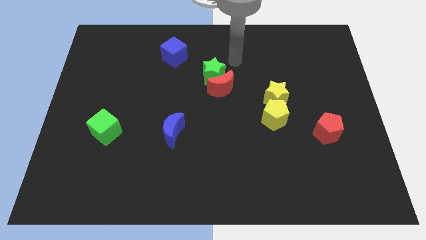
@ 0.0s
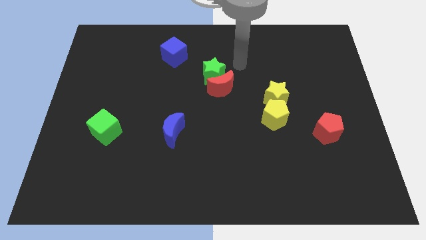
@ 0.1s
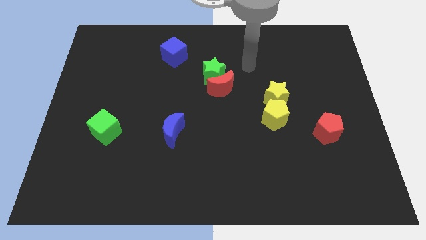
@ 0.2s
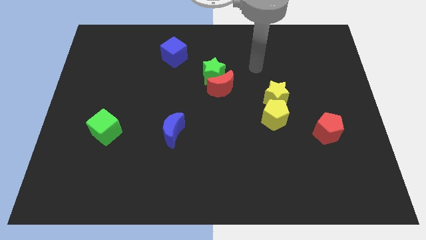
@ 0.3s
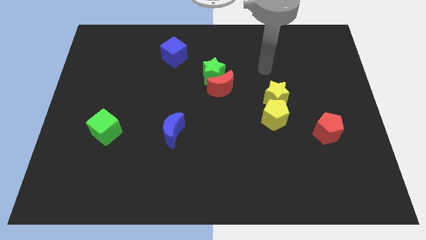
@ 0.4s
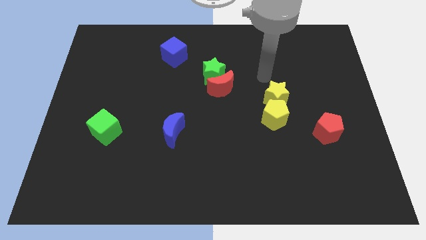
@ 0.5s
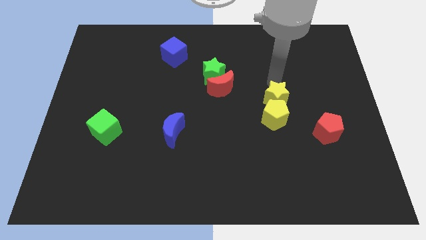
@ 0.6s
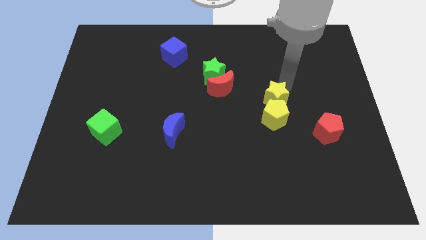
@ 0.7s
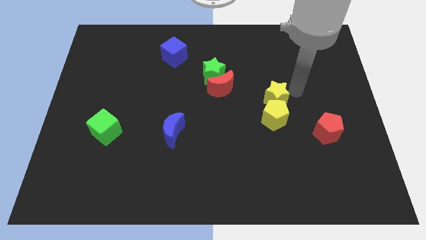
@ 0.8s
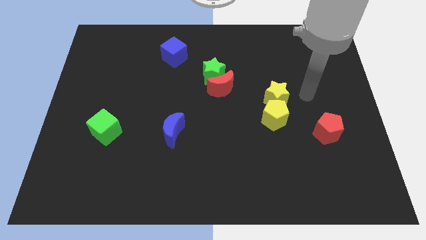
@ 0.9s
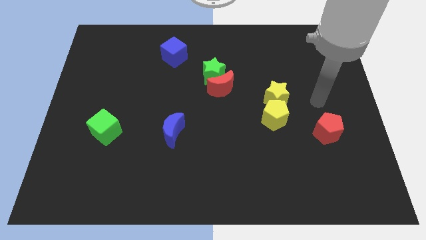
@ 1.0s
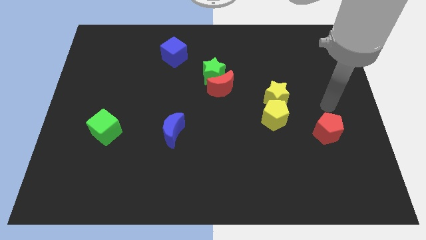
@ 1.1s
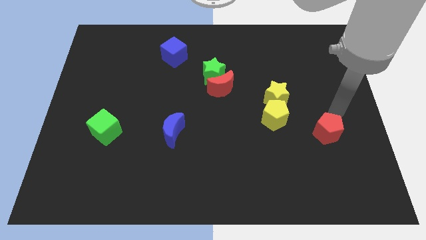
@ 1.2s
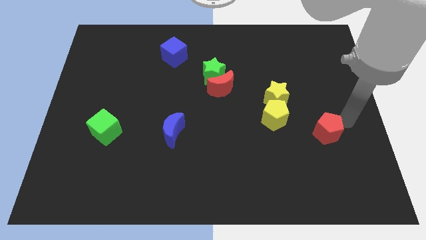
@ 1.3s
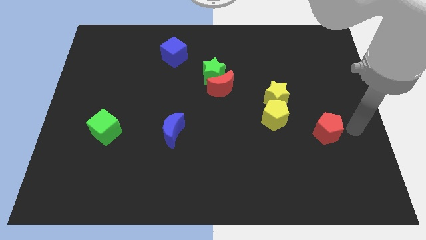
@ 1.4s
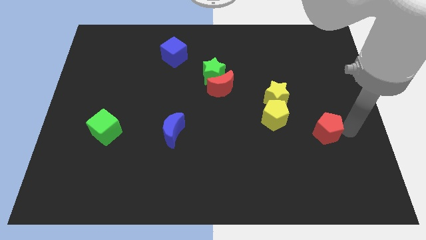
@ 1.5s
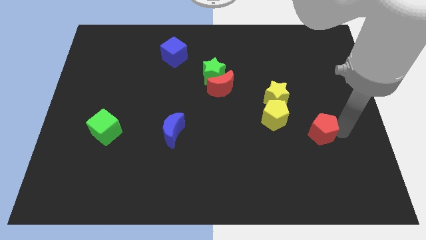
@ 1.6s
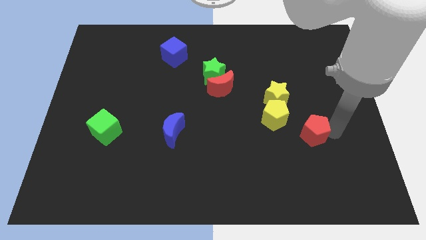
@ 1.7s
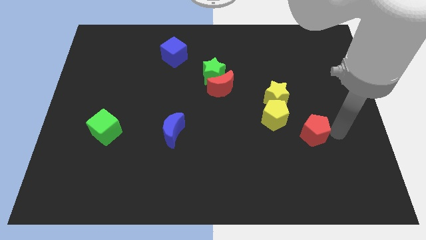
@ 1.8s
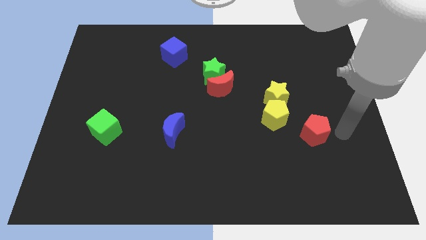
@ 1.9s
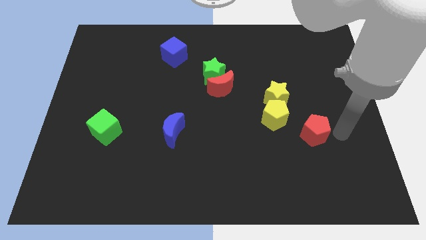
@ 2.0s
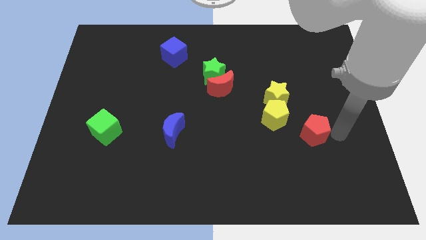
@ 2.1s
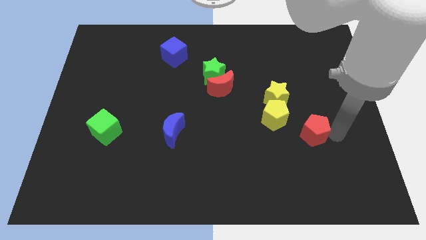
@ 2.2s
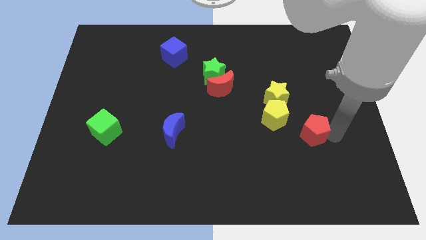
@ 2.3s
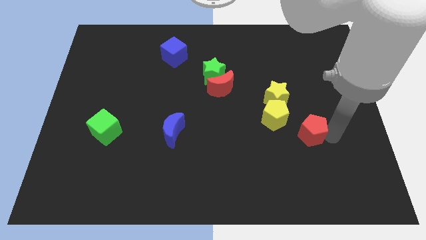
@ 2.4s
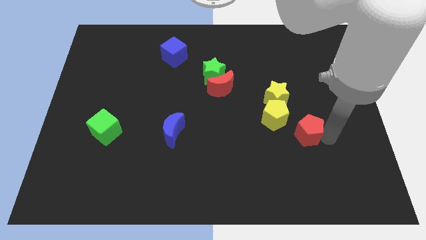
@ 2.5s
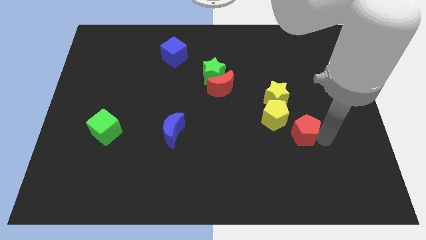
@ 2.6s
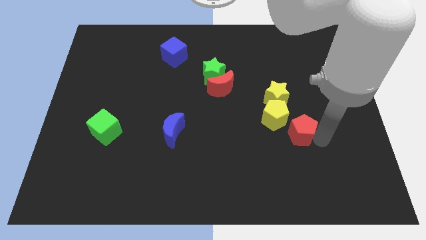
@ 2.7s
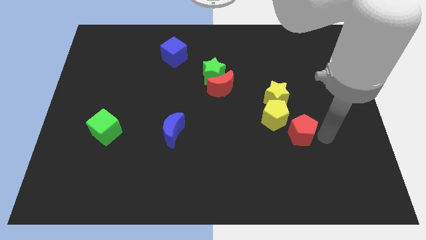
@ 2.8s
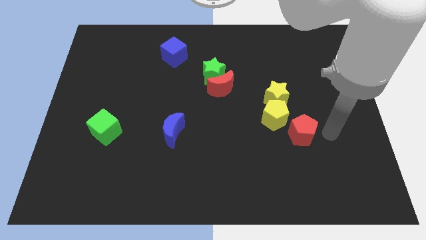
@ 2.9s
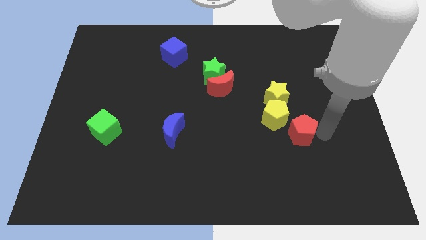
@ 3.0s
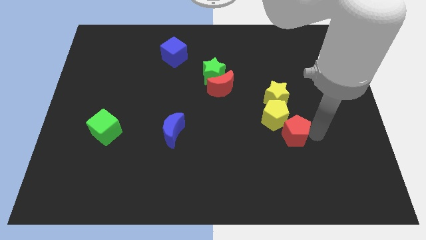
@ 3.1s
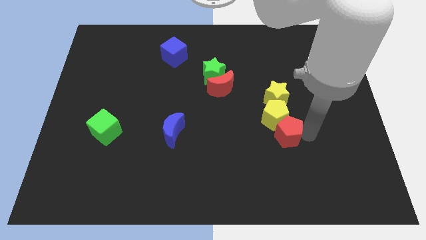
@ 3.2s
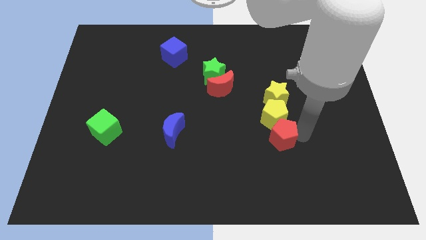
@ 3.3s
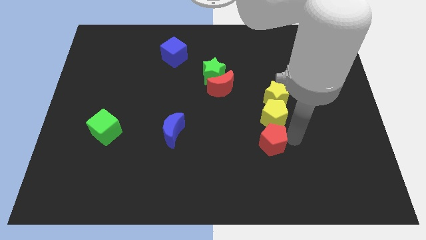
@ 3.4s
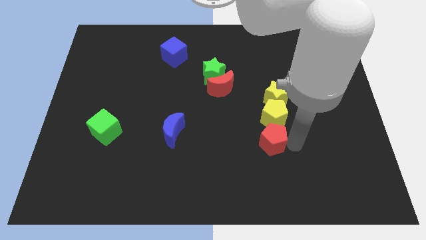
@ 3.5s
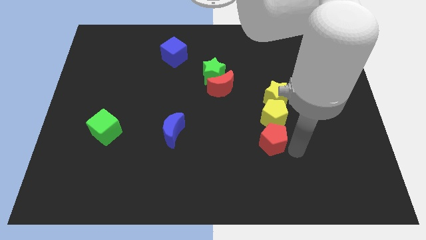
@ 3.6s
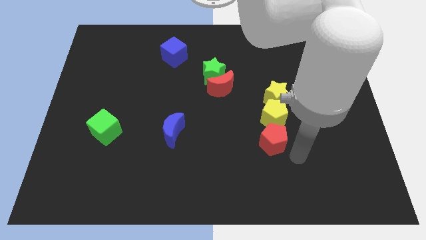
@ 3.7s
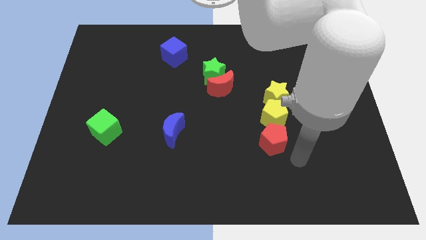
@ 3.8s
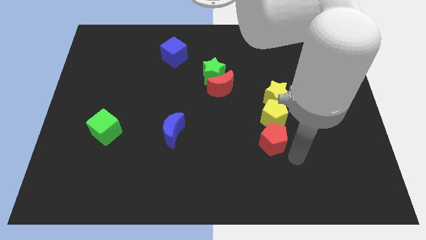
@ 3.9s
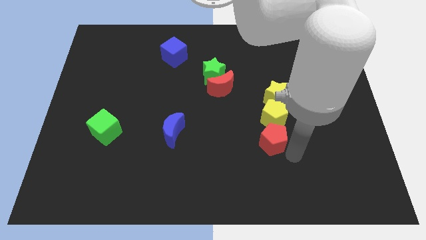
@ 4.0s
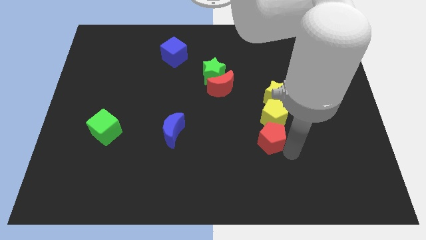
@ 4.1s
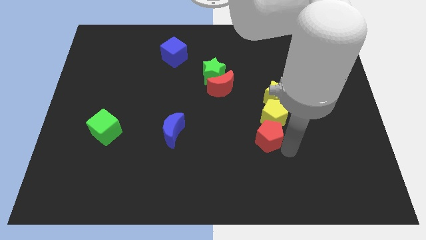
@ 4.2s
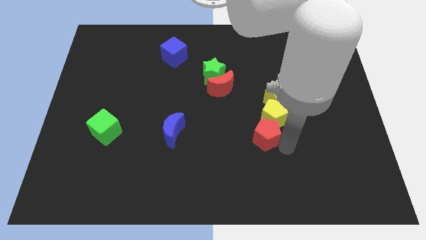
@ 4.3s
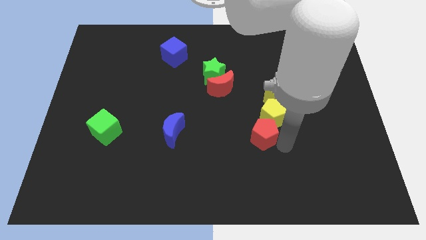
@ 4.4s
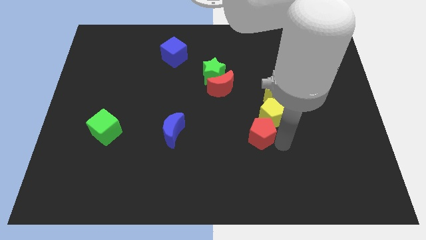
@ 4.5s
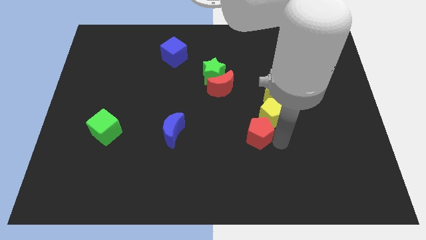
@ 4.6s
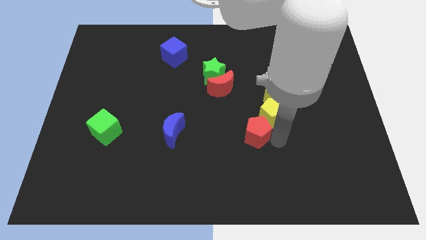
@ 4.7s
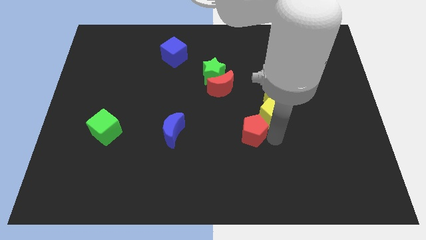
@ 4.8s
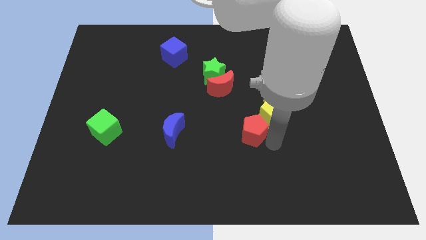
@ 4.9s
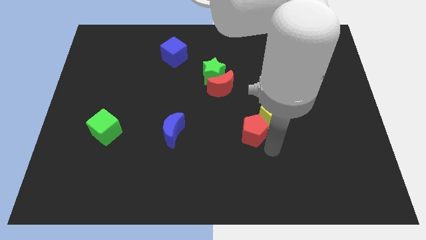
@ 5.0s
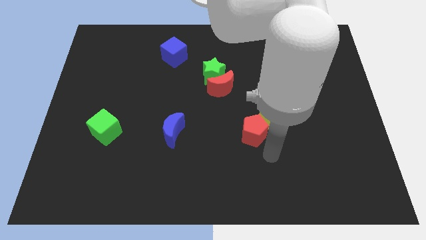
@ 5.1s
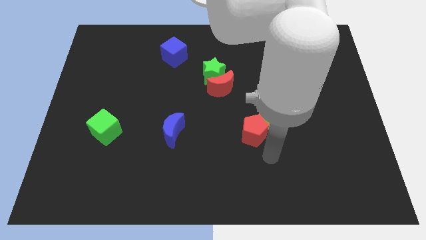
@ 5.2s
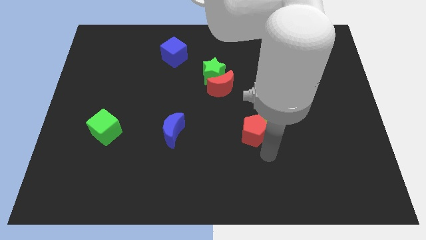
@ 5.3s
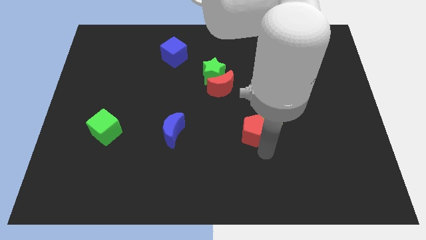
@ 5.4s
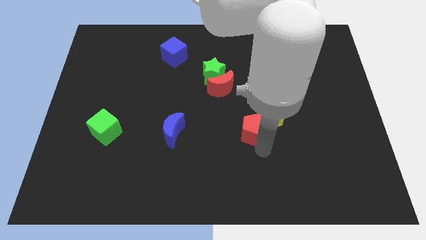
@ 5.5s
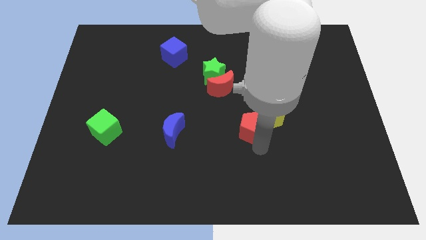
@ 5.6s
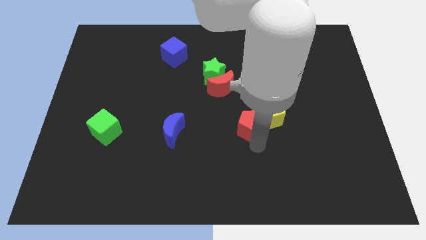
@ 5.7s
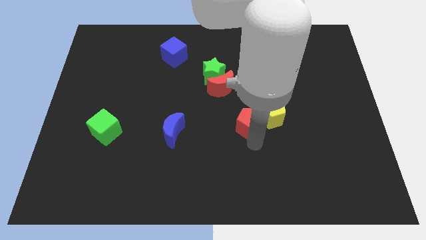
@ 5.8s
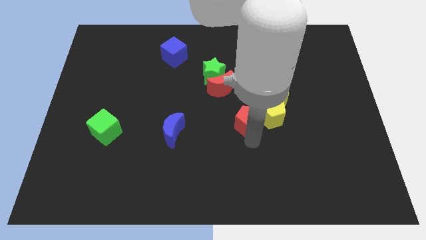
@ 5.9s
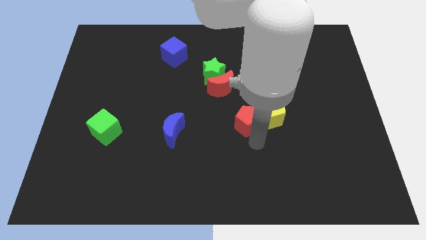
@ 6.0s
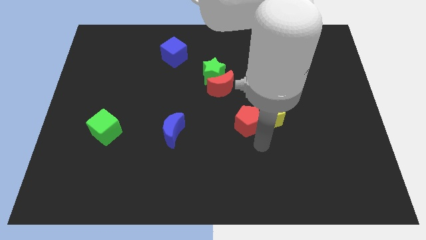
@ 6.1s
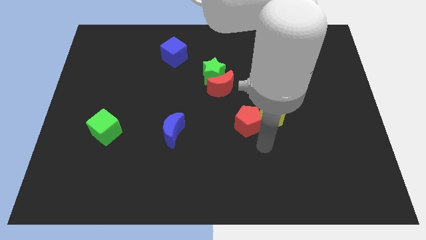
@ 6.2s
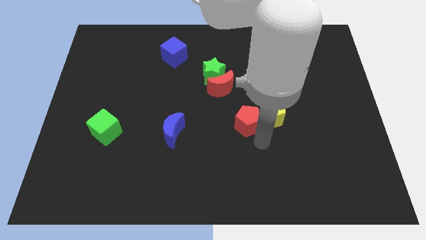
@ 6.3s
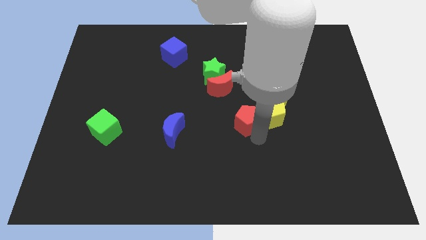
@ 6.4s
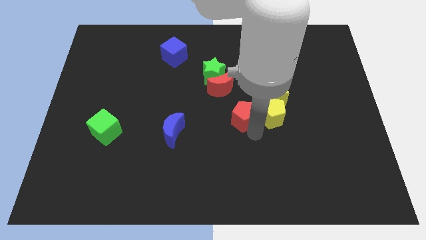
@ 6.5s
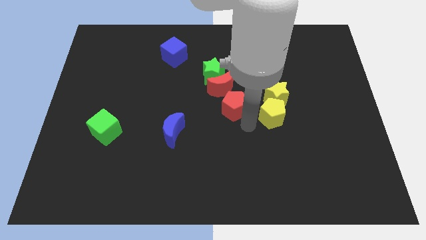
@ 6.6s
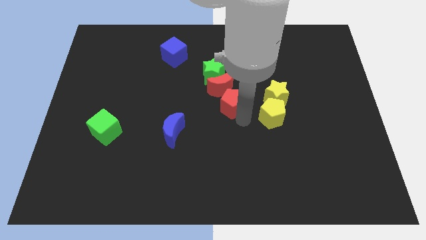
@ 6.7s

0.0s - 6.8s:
slide the red pentagon close to the red moon
